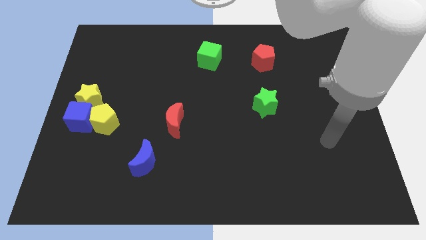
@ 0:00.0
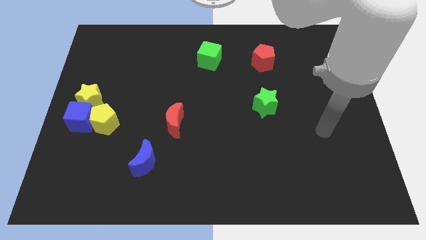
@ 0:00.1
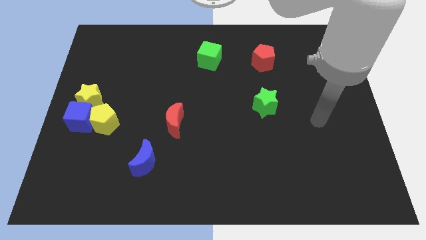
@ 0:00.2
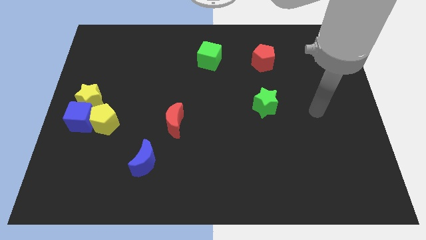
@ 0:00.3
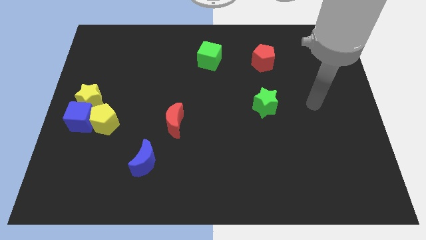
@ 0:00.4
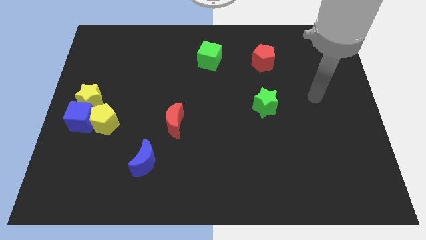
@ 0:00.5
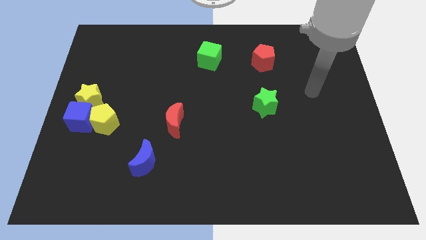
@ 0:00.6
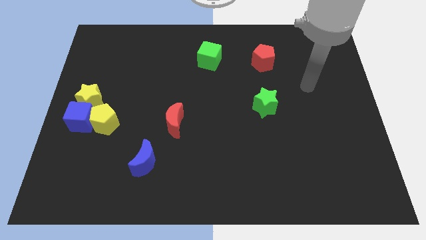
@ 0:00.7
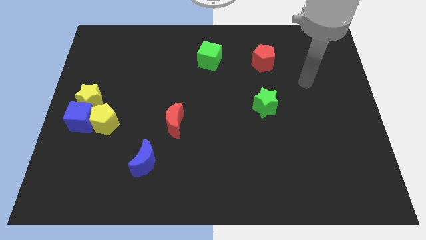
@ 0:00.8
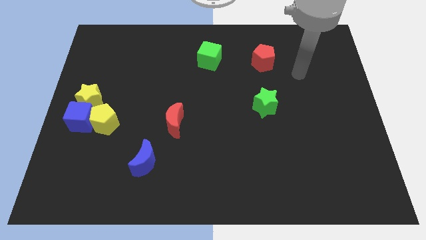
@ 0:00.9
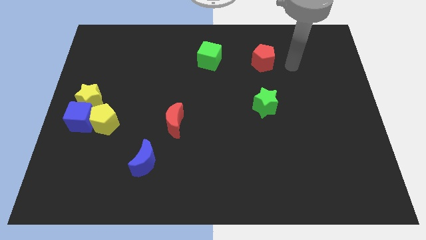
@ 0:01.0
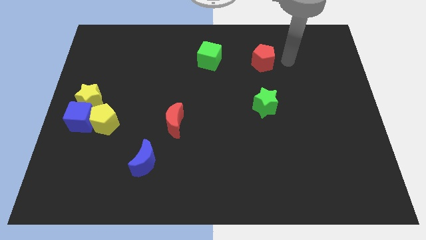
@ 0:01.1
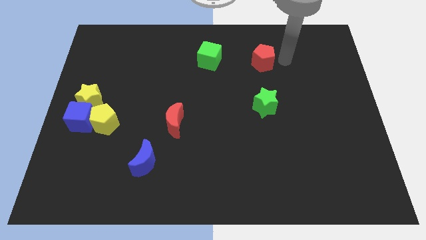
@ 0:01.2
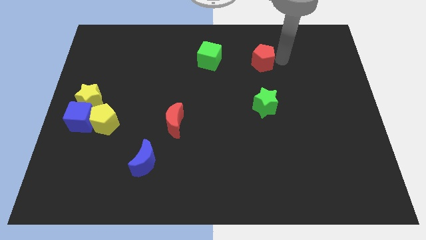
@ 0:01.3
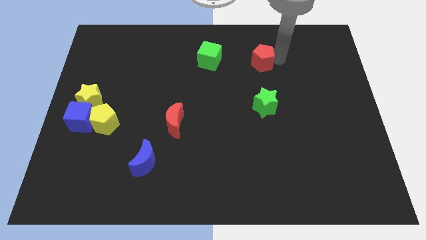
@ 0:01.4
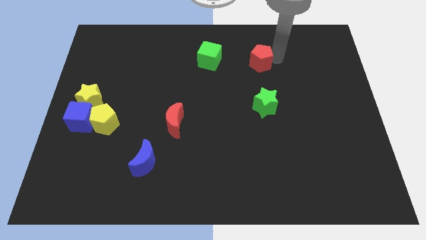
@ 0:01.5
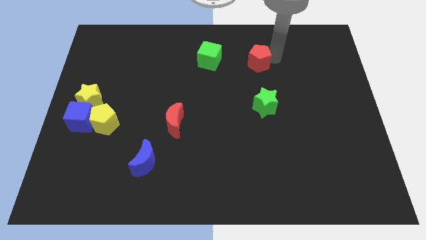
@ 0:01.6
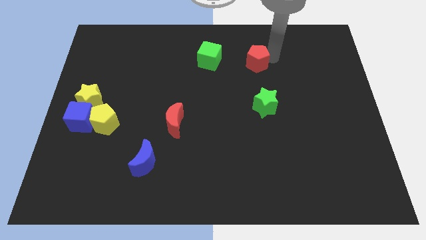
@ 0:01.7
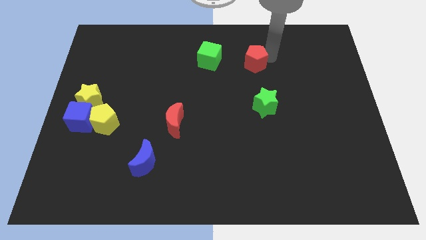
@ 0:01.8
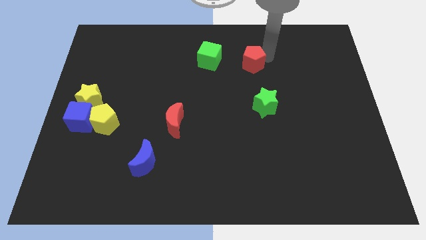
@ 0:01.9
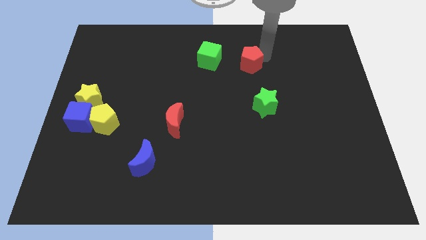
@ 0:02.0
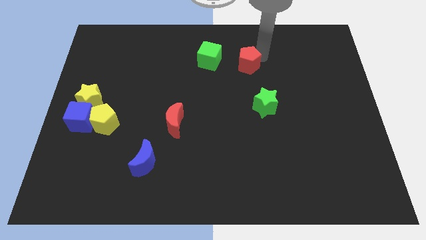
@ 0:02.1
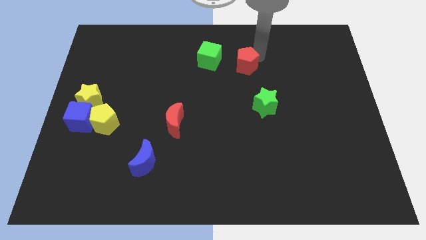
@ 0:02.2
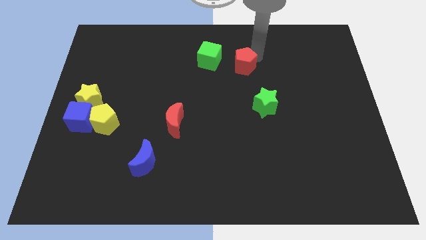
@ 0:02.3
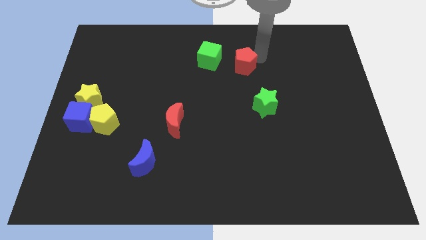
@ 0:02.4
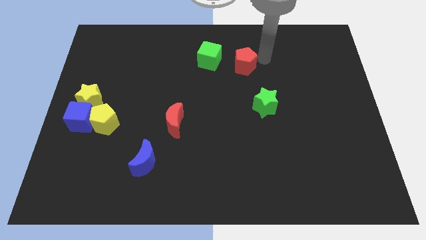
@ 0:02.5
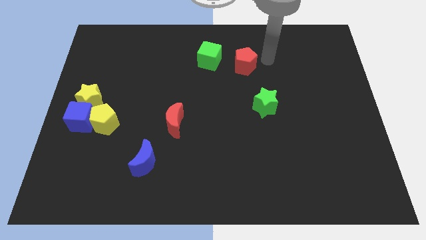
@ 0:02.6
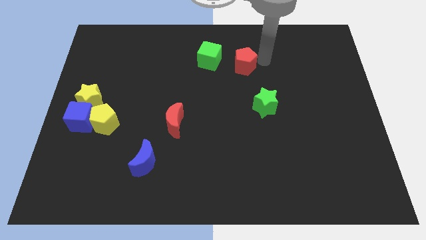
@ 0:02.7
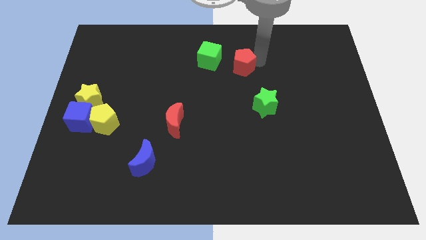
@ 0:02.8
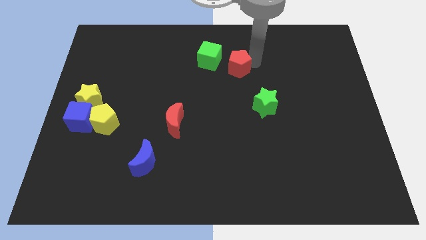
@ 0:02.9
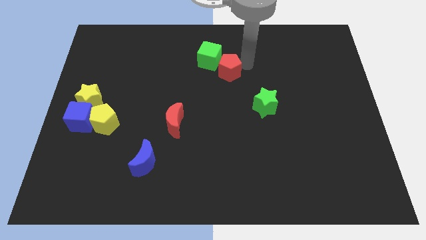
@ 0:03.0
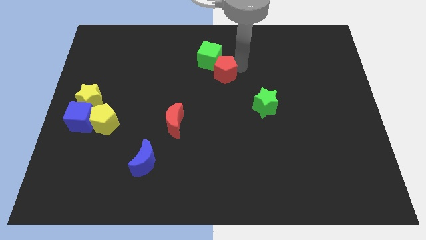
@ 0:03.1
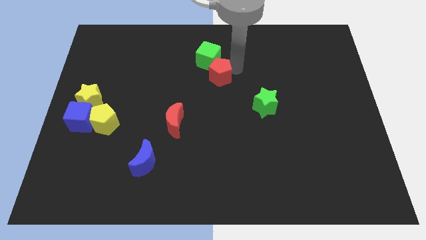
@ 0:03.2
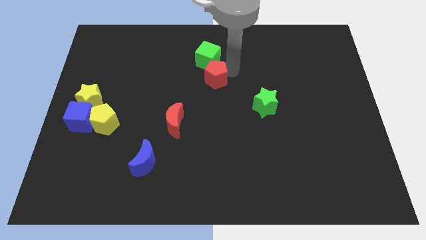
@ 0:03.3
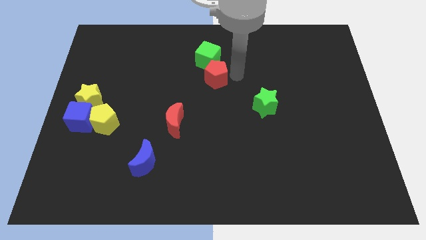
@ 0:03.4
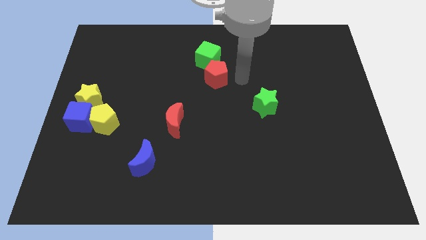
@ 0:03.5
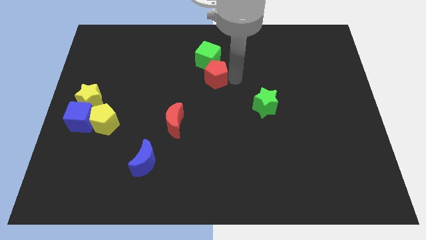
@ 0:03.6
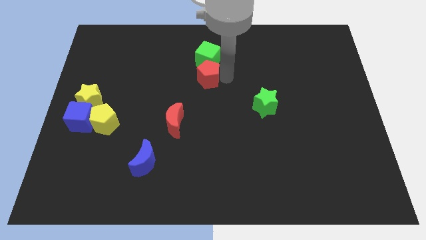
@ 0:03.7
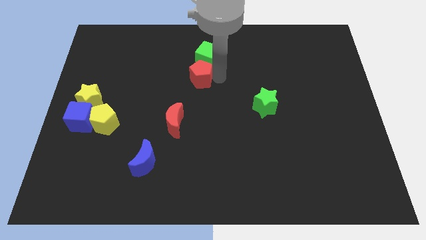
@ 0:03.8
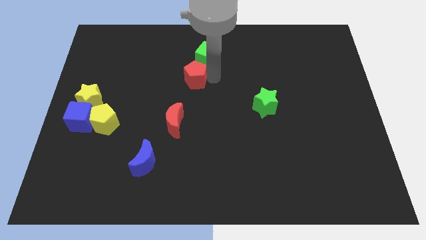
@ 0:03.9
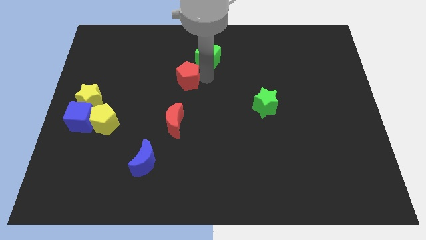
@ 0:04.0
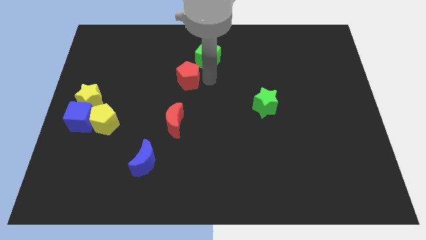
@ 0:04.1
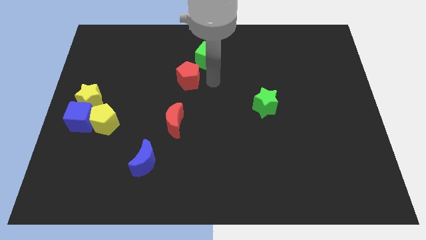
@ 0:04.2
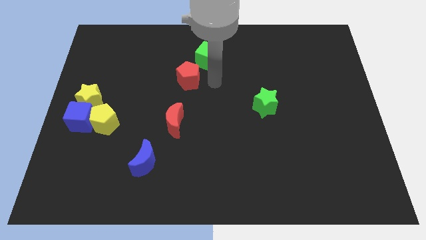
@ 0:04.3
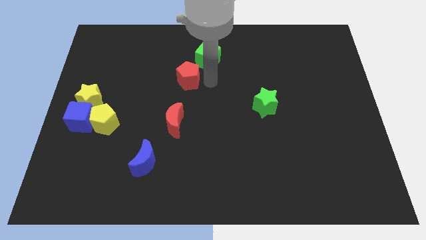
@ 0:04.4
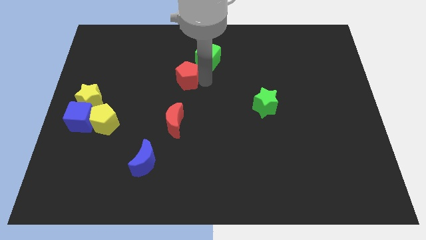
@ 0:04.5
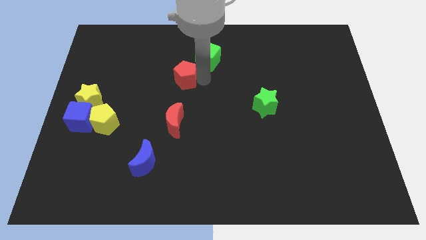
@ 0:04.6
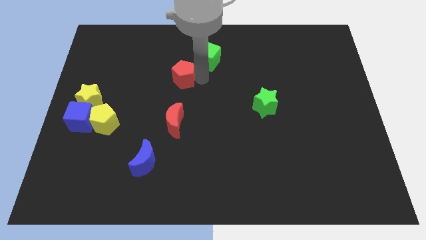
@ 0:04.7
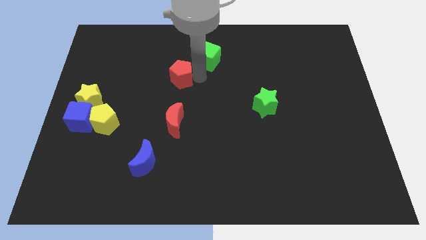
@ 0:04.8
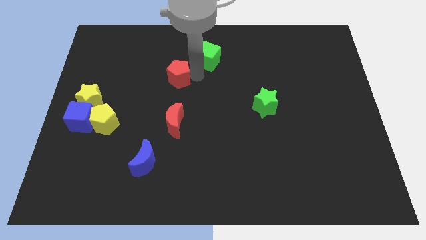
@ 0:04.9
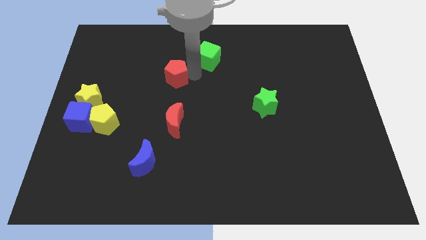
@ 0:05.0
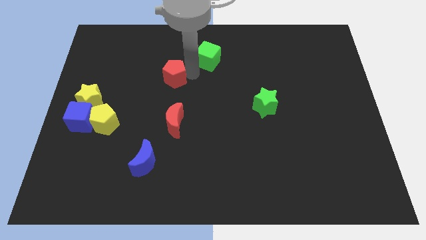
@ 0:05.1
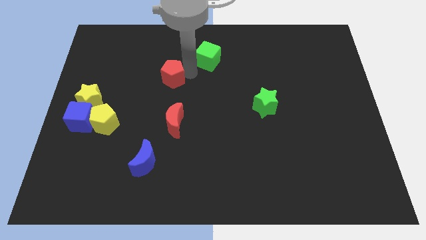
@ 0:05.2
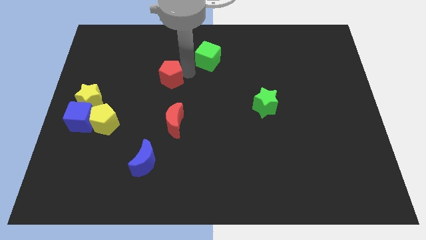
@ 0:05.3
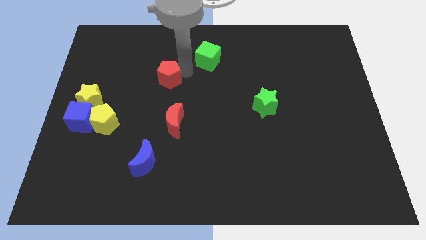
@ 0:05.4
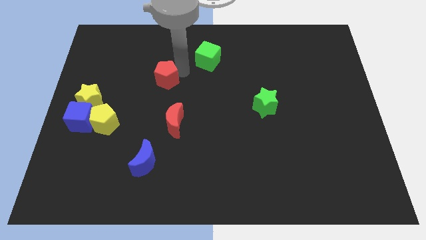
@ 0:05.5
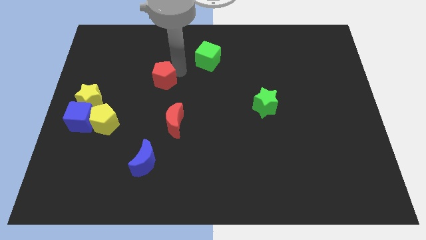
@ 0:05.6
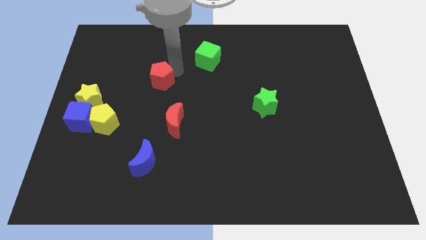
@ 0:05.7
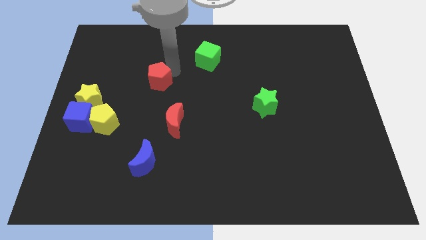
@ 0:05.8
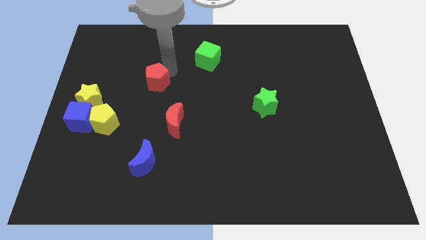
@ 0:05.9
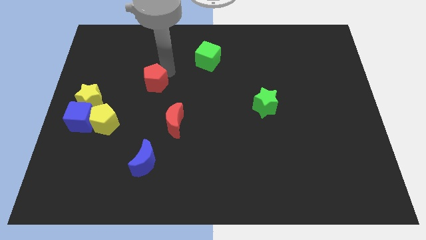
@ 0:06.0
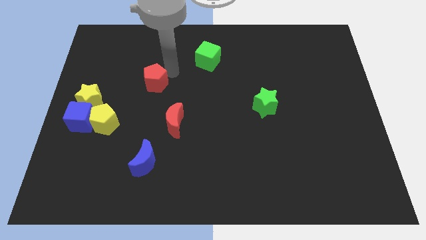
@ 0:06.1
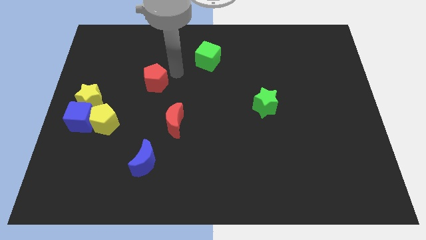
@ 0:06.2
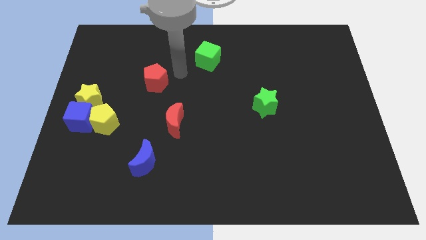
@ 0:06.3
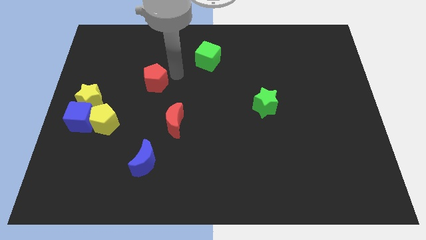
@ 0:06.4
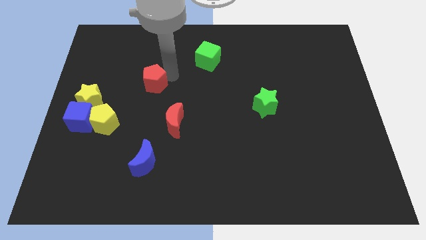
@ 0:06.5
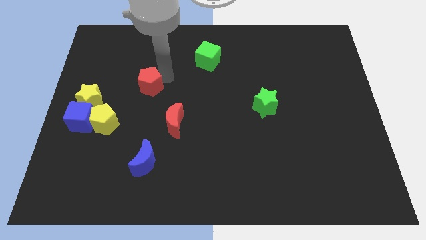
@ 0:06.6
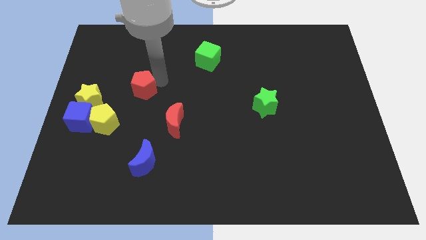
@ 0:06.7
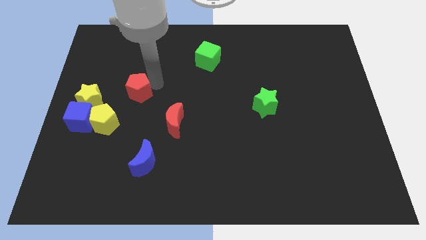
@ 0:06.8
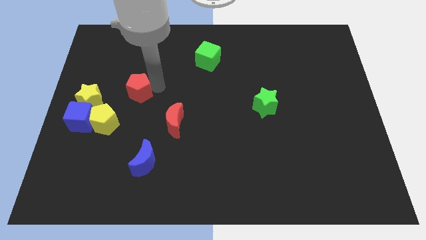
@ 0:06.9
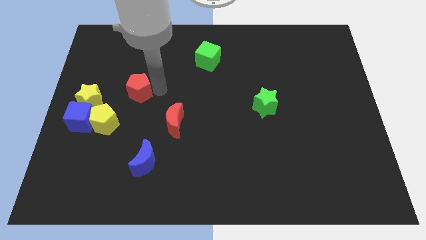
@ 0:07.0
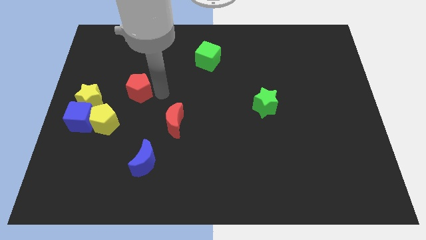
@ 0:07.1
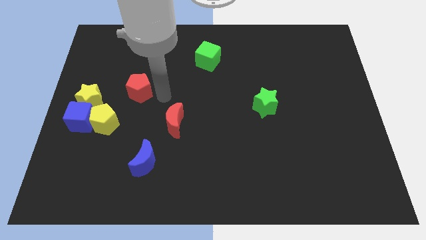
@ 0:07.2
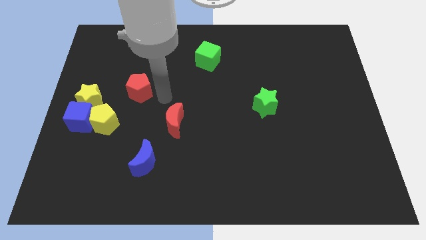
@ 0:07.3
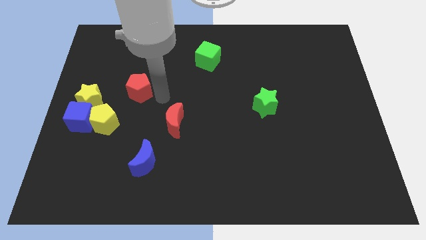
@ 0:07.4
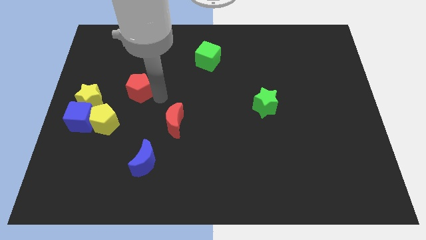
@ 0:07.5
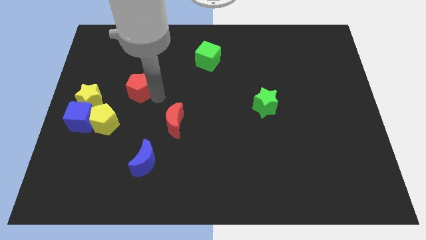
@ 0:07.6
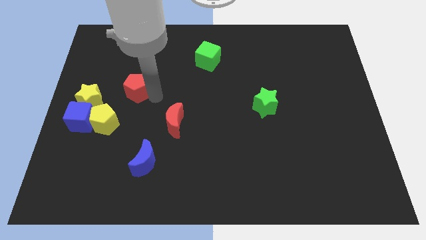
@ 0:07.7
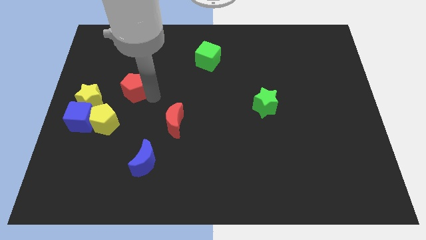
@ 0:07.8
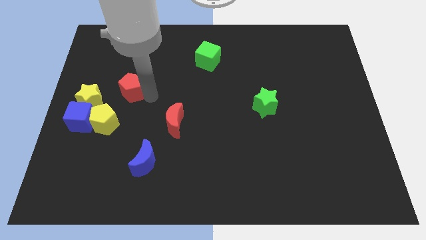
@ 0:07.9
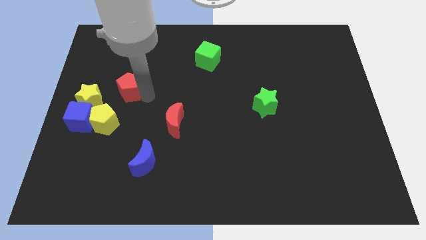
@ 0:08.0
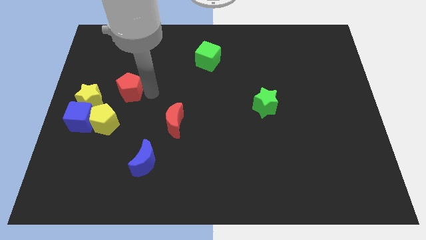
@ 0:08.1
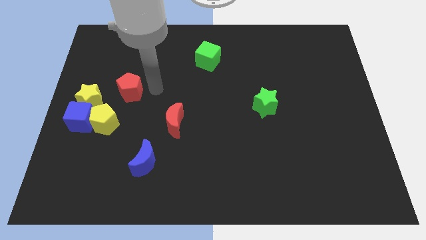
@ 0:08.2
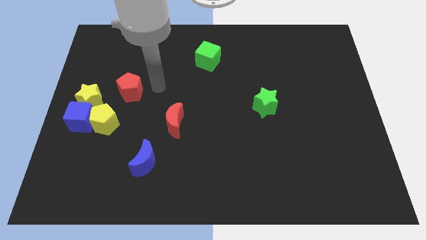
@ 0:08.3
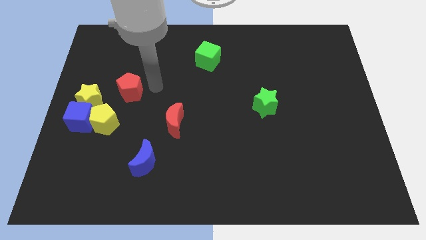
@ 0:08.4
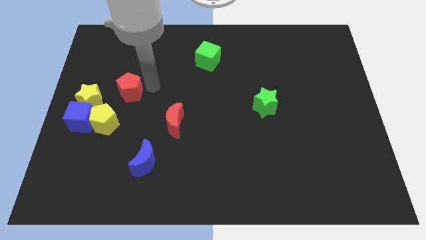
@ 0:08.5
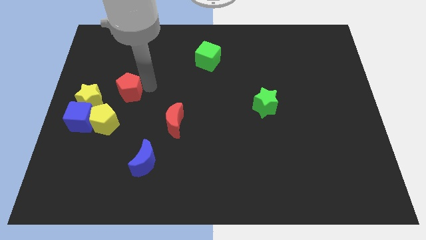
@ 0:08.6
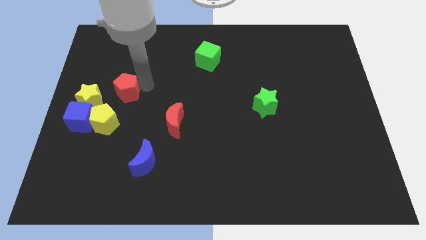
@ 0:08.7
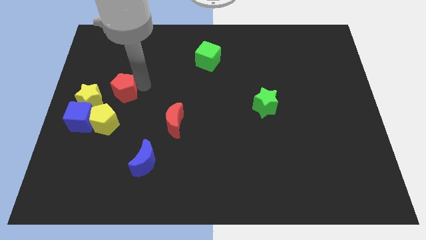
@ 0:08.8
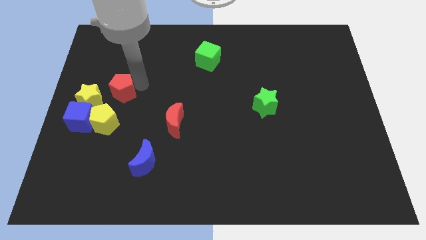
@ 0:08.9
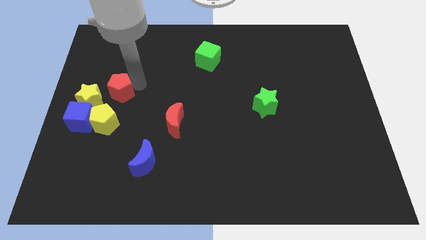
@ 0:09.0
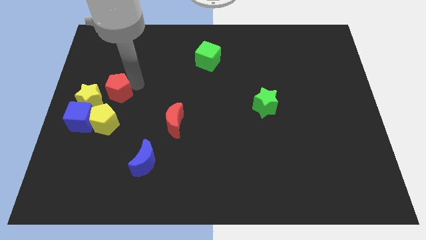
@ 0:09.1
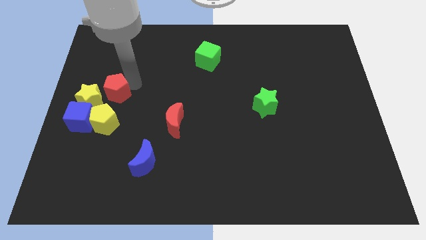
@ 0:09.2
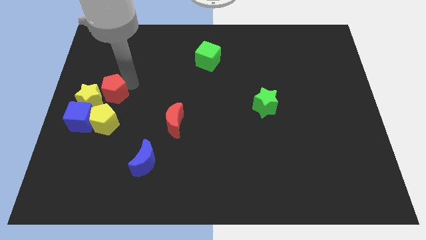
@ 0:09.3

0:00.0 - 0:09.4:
slide the red pentagon to the yellow star
